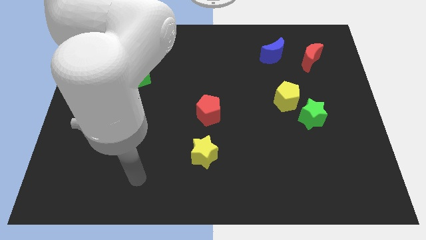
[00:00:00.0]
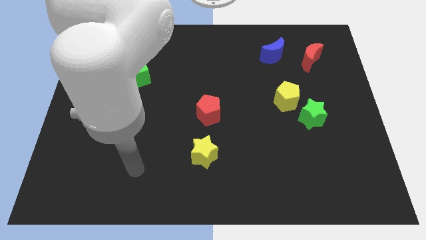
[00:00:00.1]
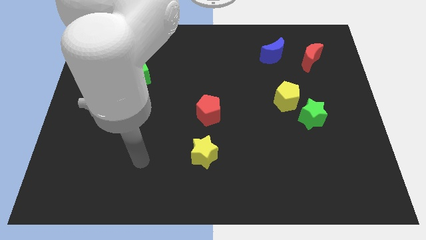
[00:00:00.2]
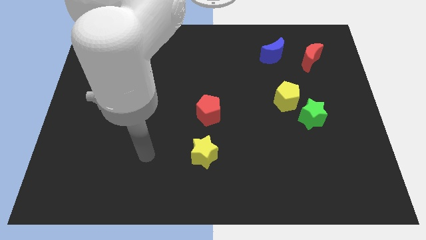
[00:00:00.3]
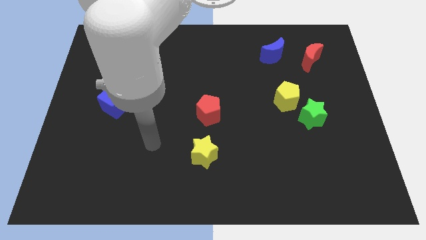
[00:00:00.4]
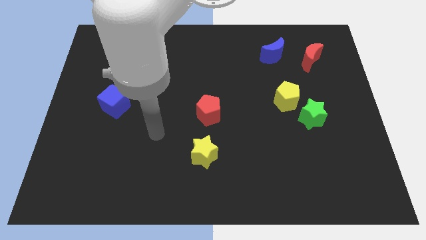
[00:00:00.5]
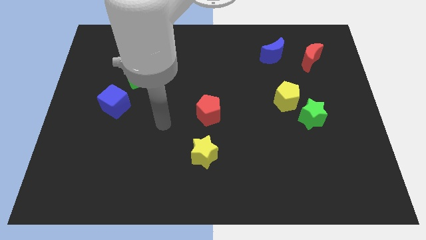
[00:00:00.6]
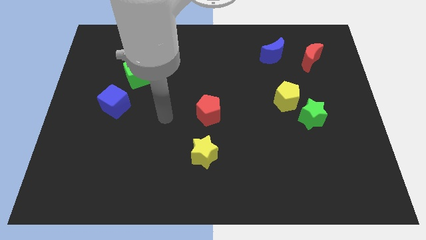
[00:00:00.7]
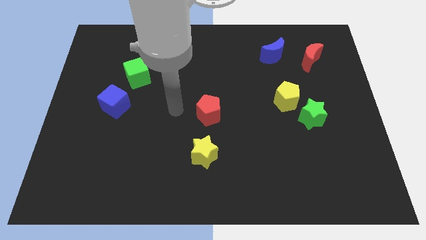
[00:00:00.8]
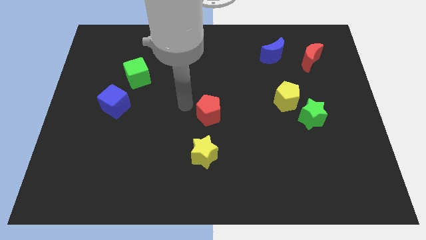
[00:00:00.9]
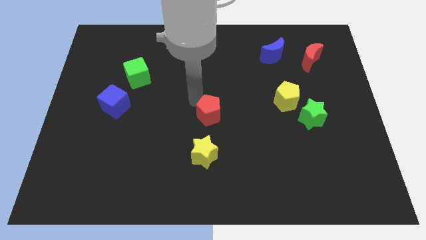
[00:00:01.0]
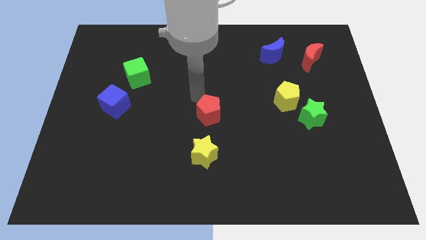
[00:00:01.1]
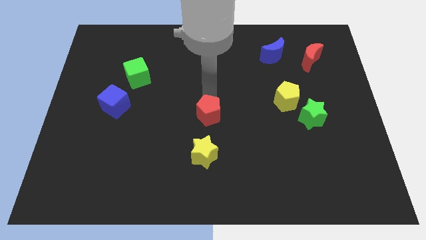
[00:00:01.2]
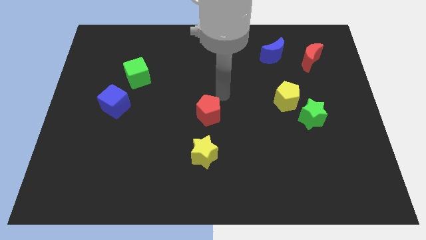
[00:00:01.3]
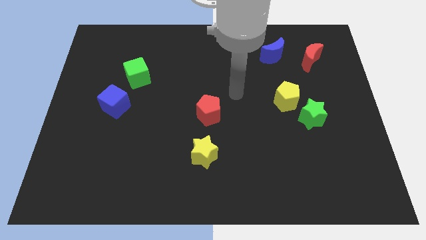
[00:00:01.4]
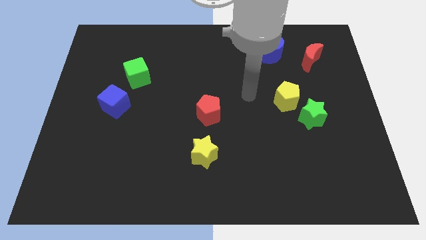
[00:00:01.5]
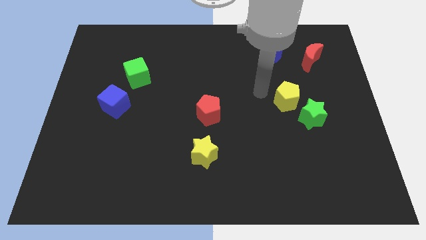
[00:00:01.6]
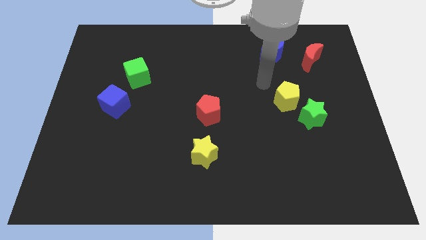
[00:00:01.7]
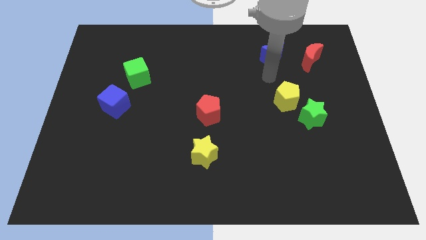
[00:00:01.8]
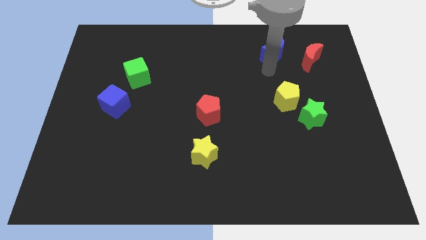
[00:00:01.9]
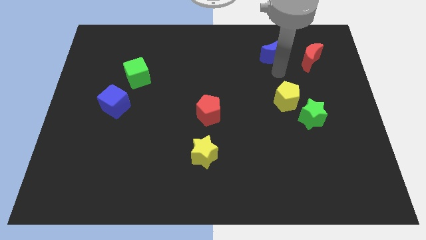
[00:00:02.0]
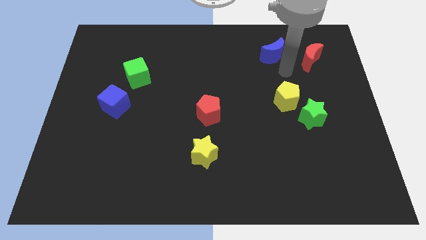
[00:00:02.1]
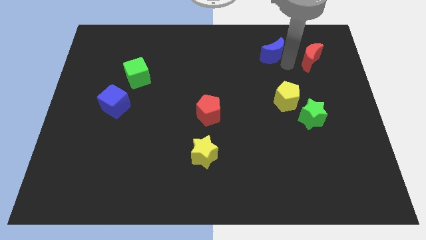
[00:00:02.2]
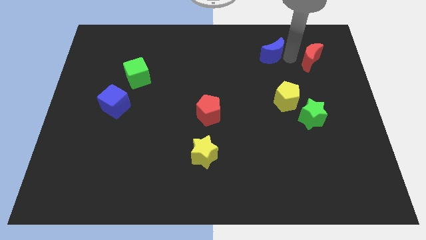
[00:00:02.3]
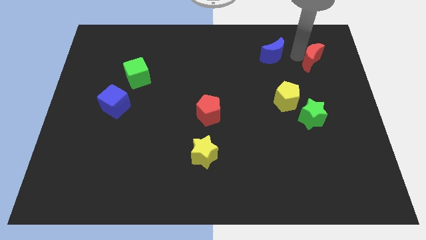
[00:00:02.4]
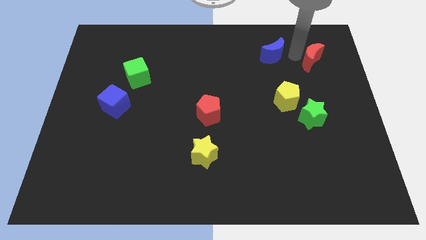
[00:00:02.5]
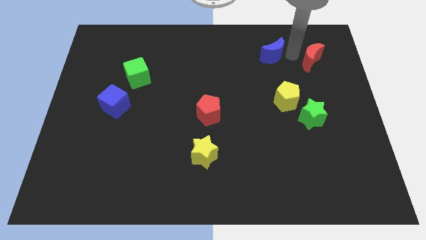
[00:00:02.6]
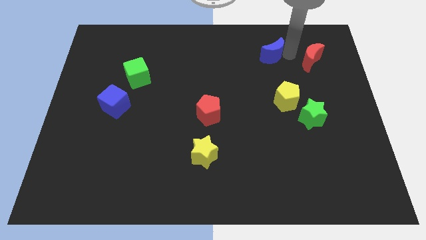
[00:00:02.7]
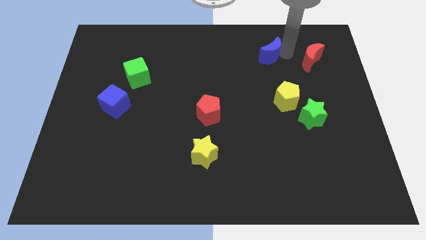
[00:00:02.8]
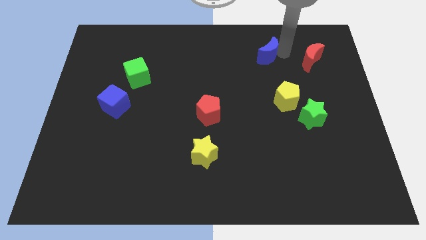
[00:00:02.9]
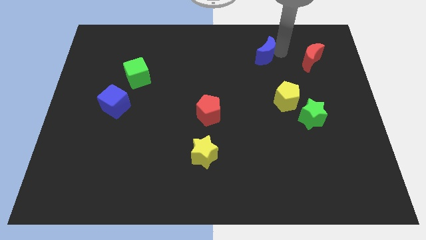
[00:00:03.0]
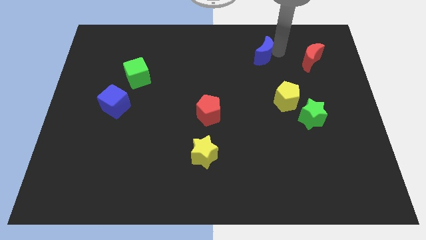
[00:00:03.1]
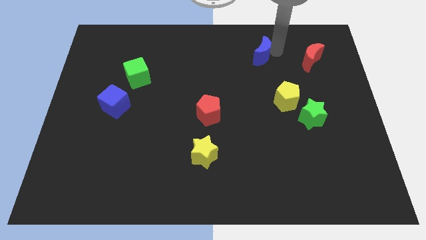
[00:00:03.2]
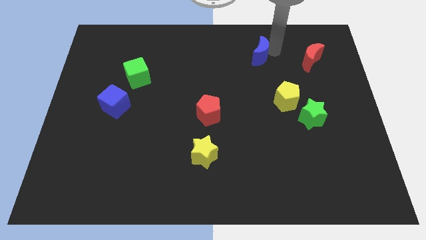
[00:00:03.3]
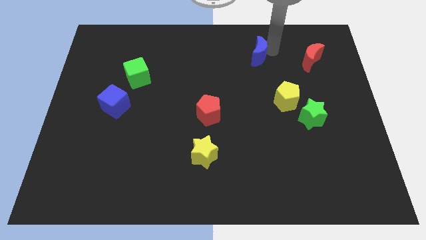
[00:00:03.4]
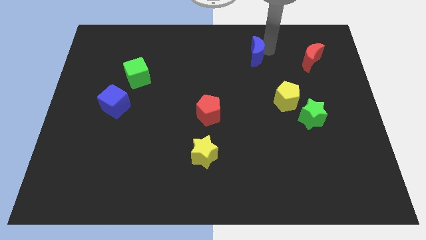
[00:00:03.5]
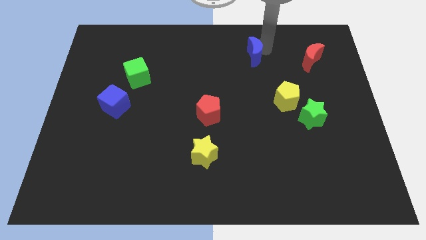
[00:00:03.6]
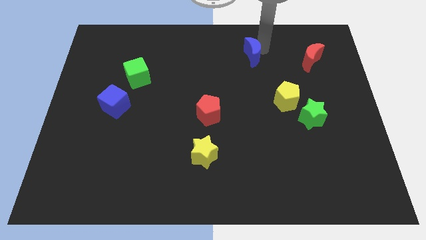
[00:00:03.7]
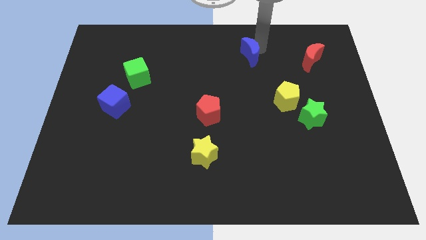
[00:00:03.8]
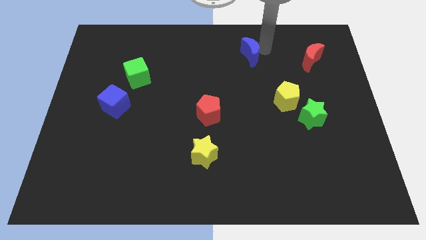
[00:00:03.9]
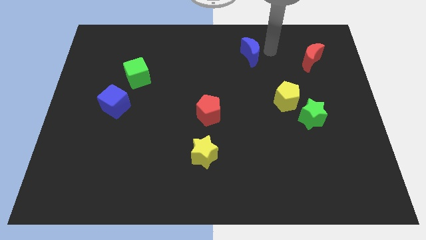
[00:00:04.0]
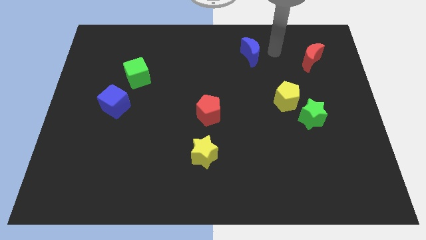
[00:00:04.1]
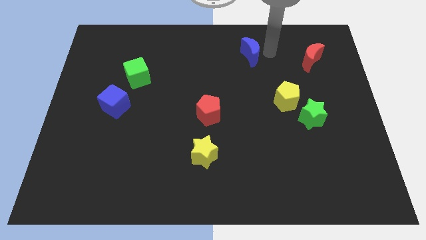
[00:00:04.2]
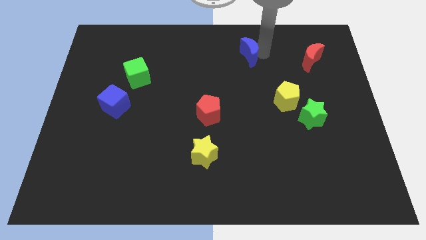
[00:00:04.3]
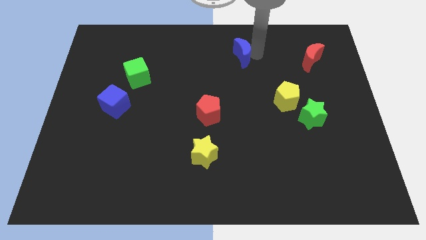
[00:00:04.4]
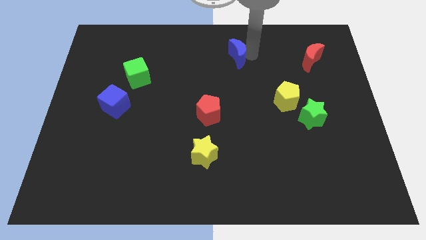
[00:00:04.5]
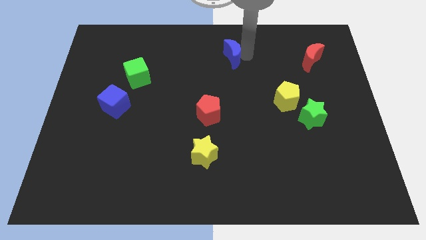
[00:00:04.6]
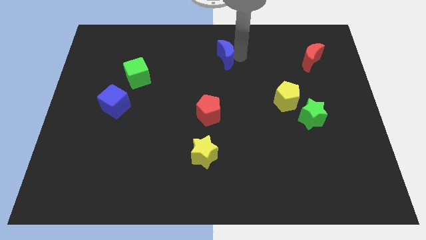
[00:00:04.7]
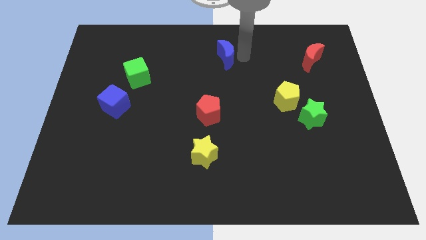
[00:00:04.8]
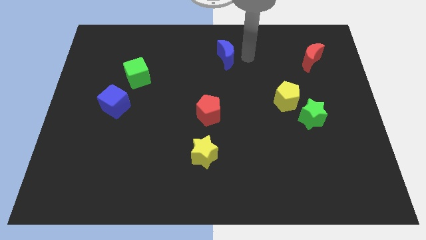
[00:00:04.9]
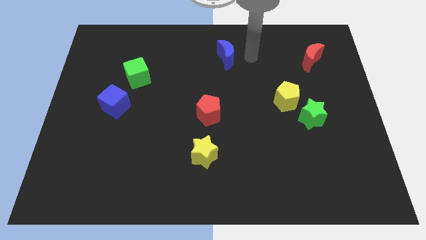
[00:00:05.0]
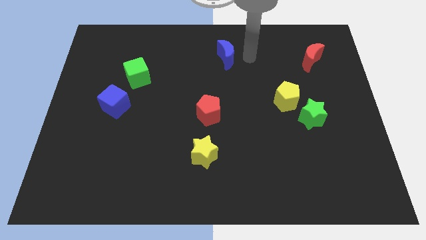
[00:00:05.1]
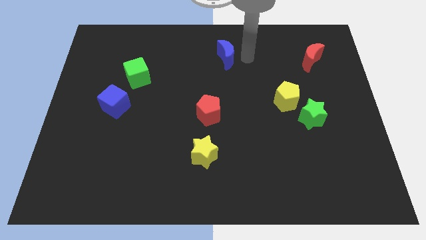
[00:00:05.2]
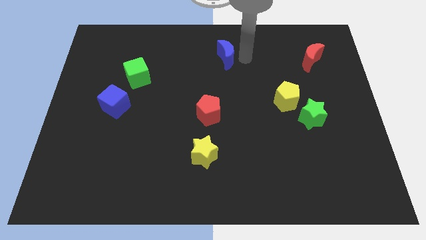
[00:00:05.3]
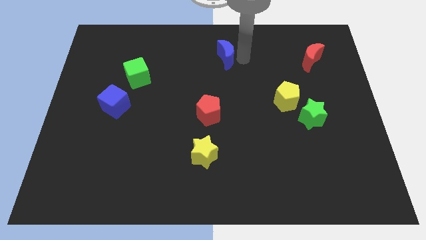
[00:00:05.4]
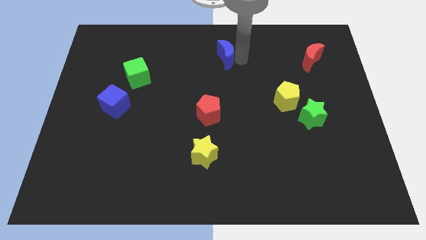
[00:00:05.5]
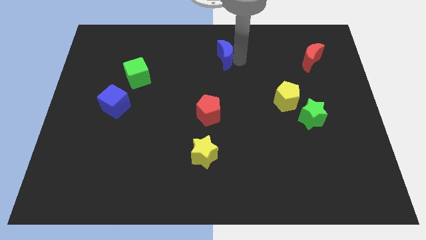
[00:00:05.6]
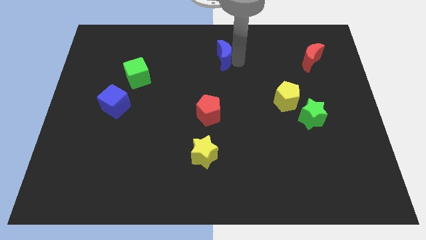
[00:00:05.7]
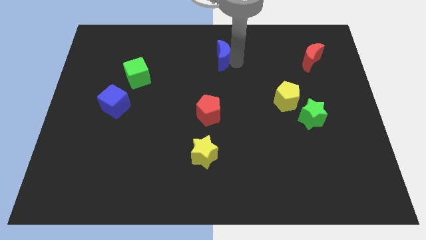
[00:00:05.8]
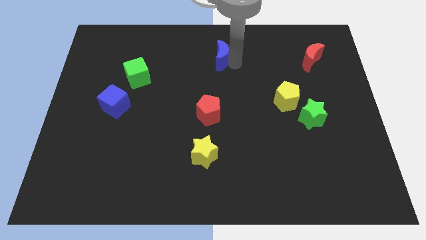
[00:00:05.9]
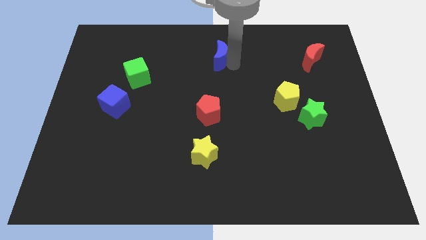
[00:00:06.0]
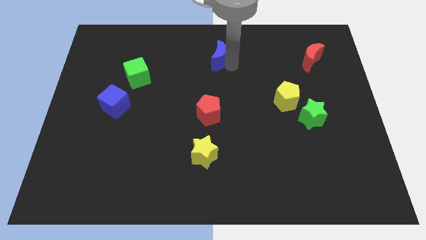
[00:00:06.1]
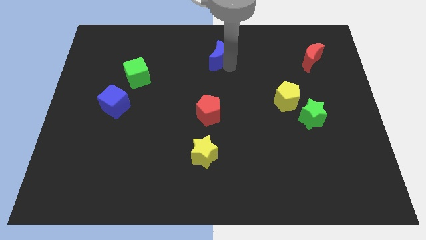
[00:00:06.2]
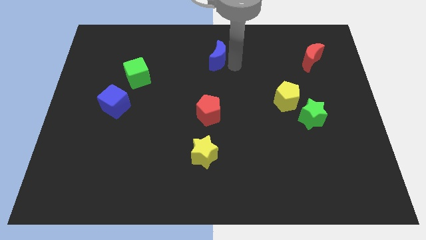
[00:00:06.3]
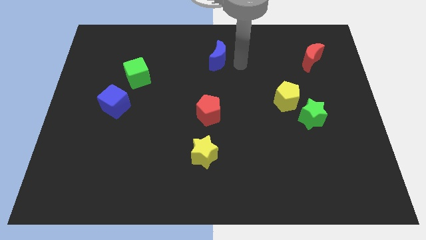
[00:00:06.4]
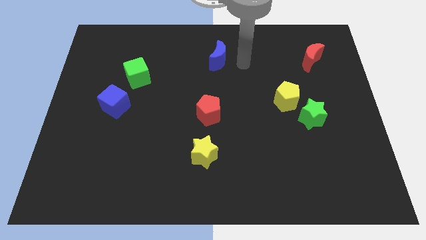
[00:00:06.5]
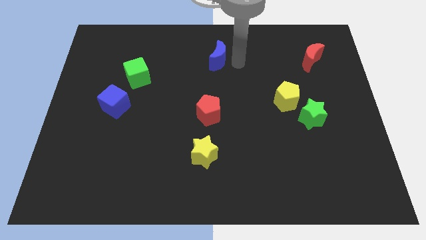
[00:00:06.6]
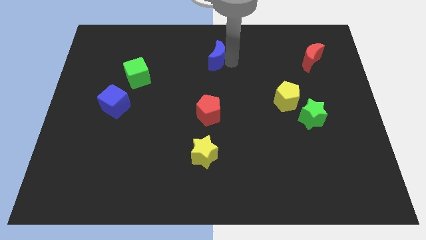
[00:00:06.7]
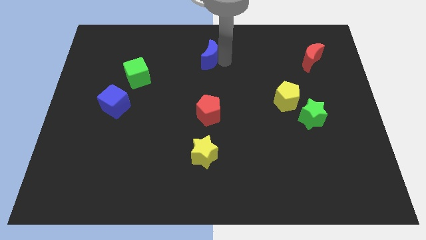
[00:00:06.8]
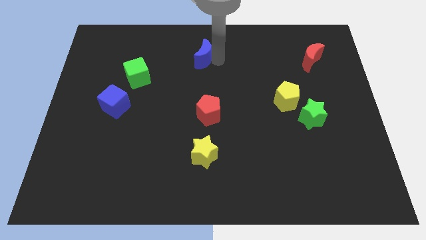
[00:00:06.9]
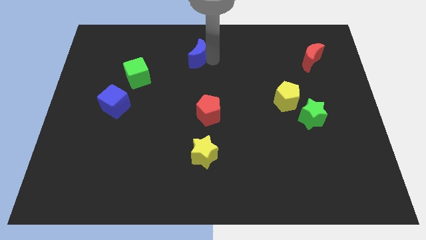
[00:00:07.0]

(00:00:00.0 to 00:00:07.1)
slide the blue moon to the left

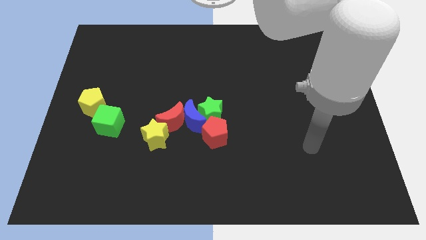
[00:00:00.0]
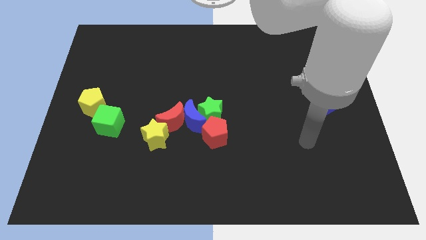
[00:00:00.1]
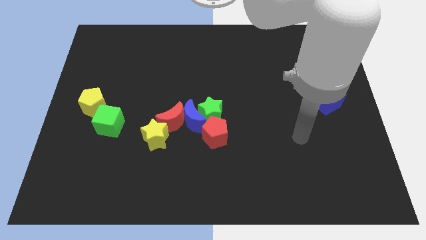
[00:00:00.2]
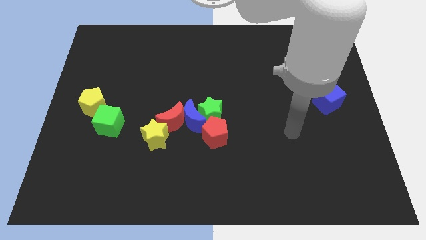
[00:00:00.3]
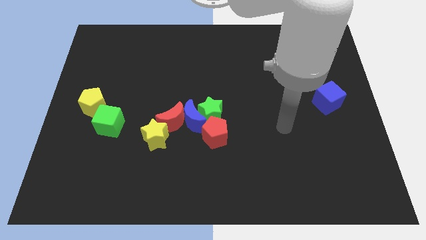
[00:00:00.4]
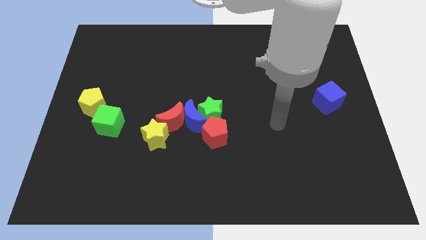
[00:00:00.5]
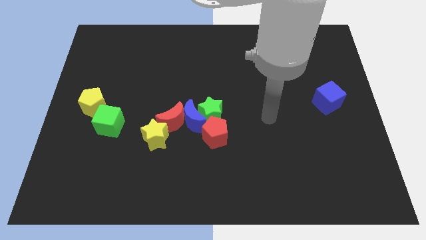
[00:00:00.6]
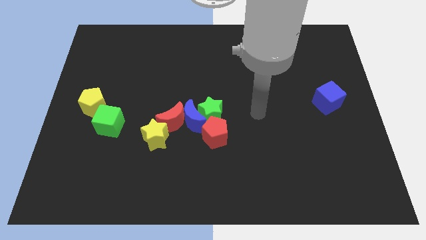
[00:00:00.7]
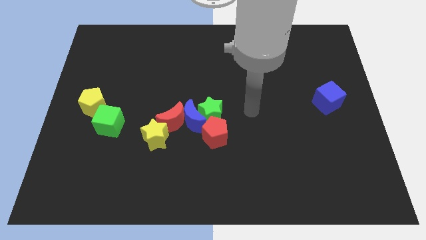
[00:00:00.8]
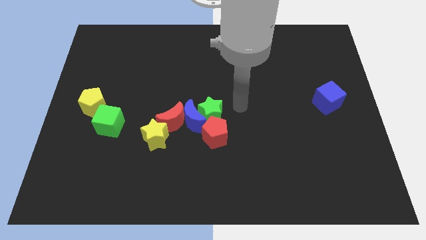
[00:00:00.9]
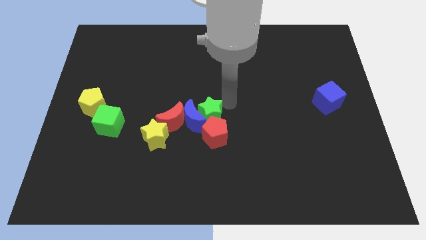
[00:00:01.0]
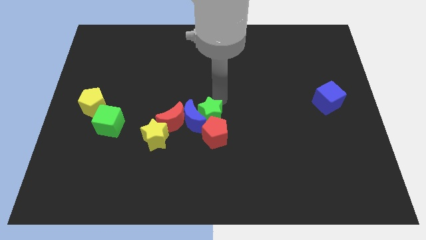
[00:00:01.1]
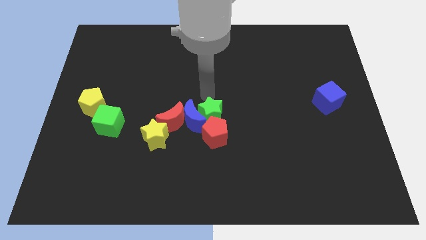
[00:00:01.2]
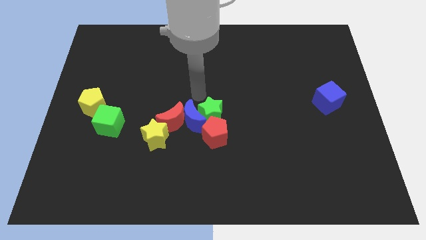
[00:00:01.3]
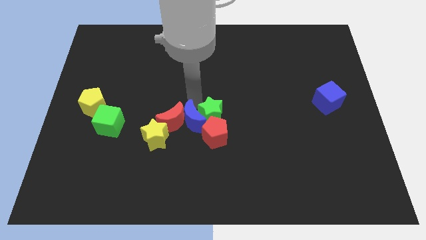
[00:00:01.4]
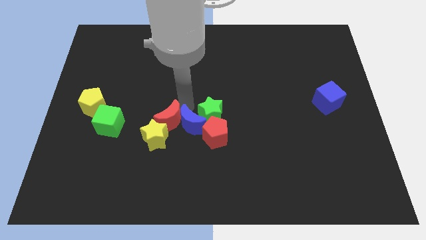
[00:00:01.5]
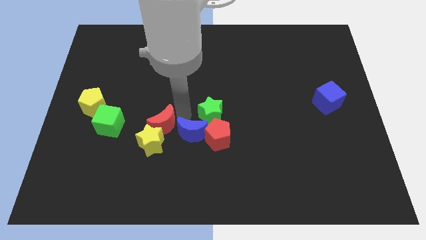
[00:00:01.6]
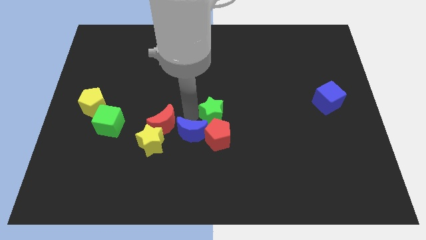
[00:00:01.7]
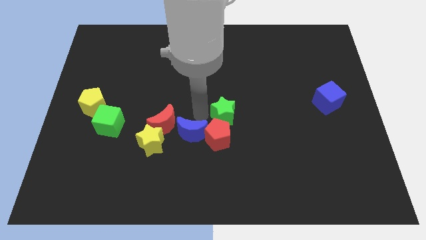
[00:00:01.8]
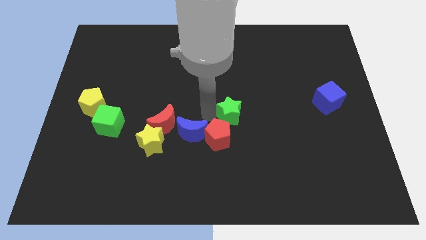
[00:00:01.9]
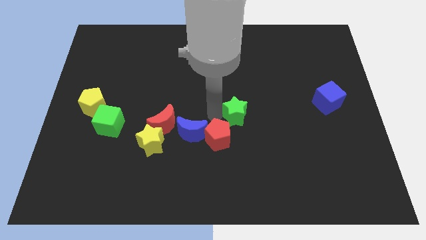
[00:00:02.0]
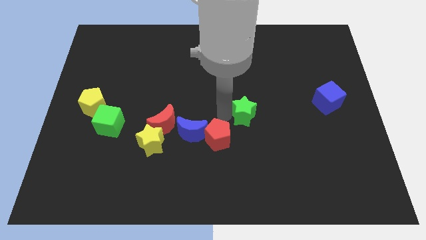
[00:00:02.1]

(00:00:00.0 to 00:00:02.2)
slide the green star to the right somewhat
